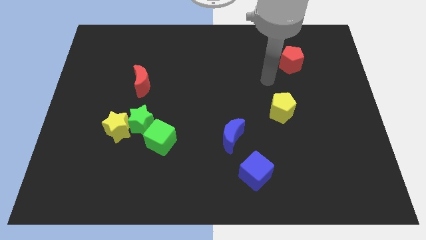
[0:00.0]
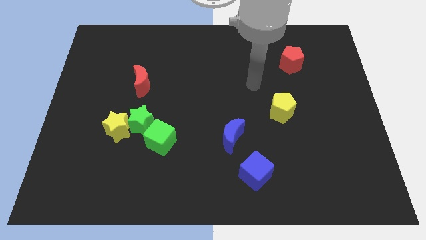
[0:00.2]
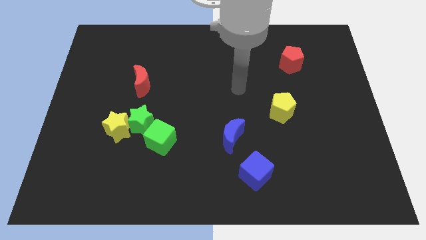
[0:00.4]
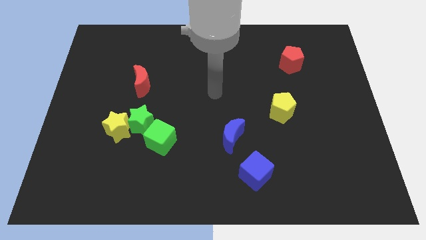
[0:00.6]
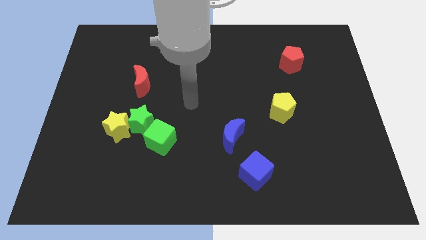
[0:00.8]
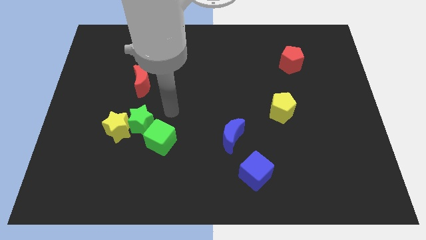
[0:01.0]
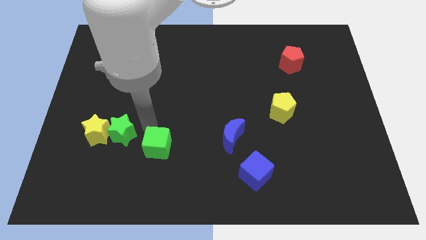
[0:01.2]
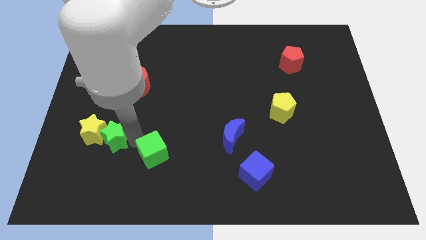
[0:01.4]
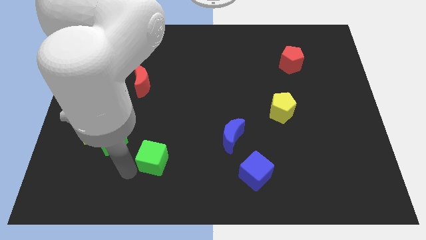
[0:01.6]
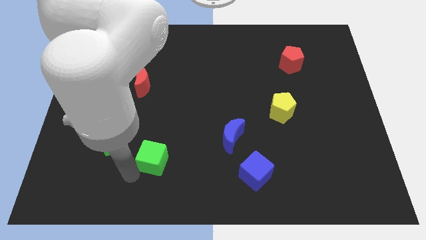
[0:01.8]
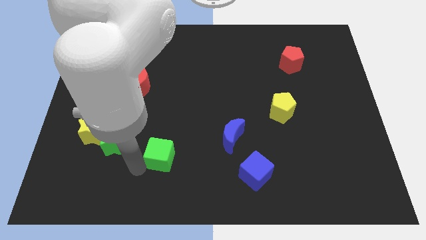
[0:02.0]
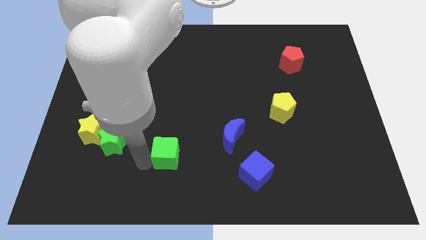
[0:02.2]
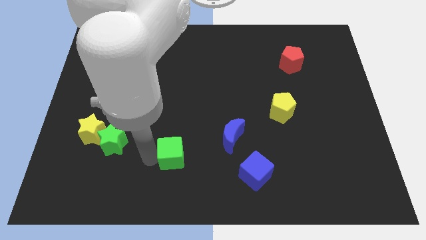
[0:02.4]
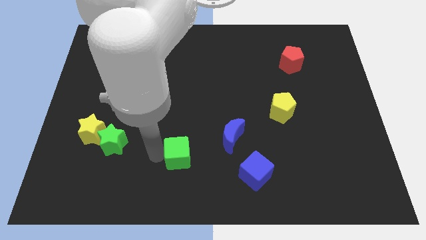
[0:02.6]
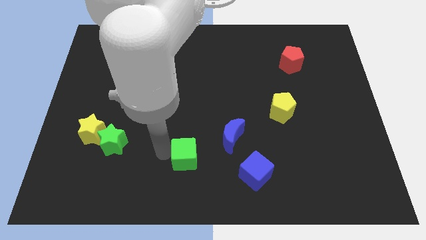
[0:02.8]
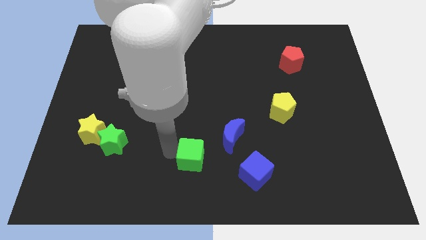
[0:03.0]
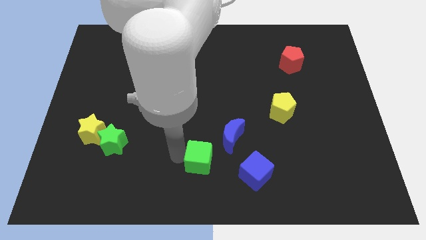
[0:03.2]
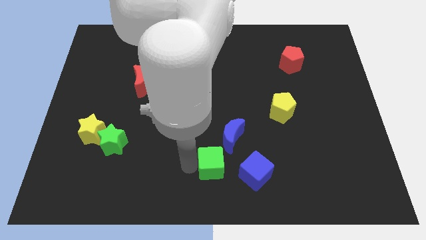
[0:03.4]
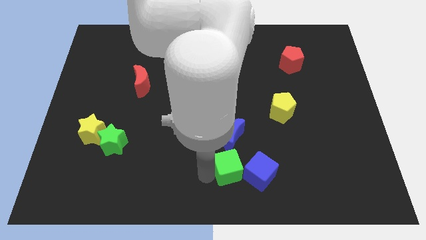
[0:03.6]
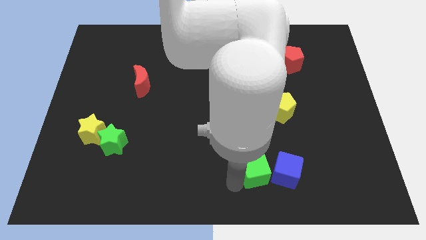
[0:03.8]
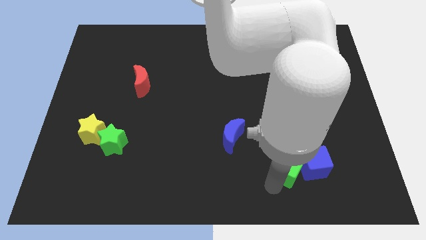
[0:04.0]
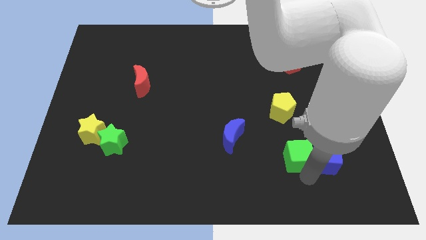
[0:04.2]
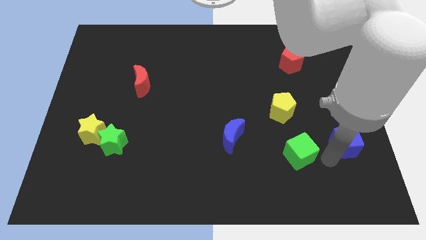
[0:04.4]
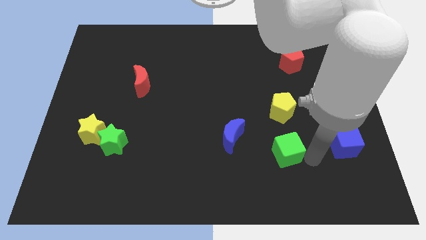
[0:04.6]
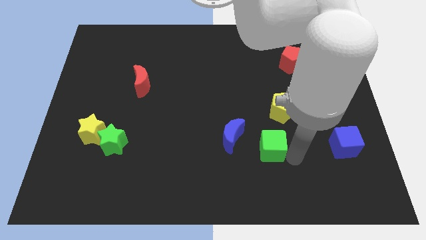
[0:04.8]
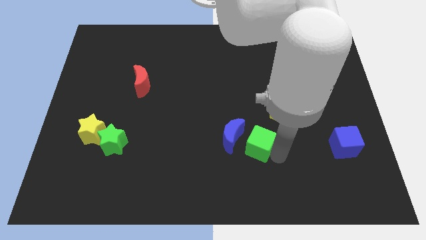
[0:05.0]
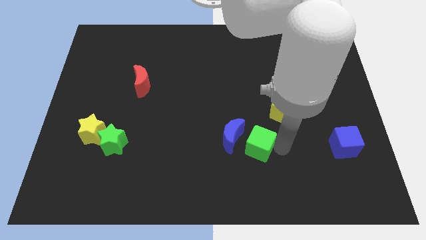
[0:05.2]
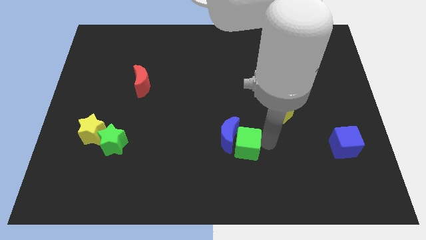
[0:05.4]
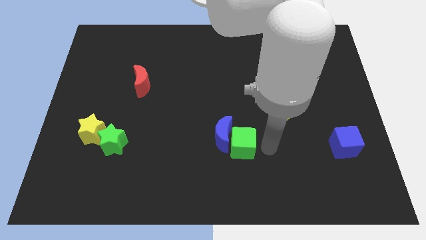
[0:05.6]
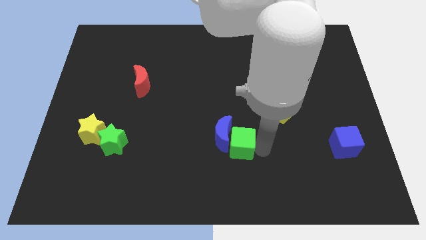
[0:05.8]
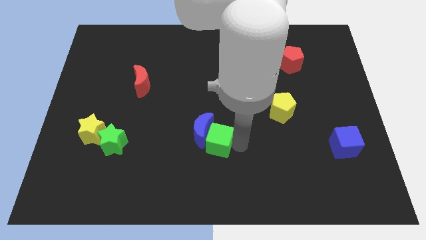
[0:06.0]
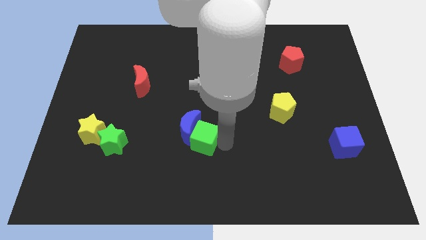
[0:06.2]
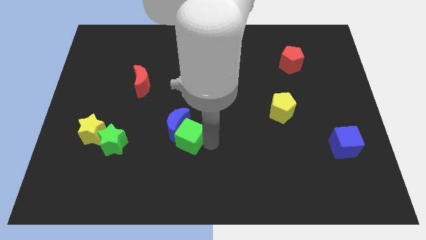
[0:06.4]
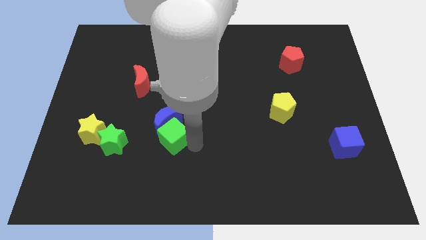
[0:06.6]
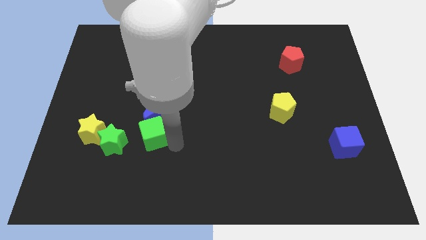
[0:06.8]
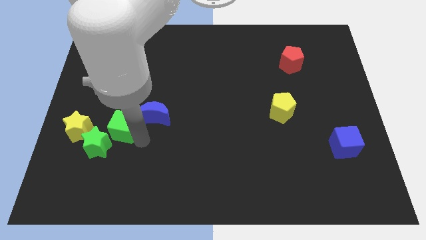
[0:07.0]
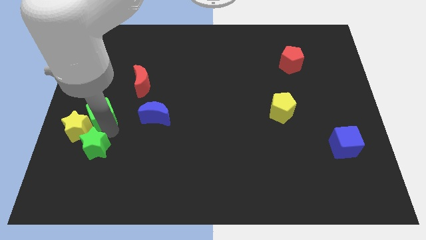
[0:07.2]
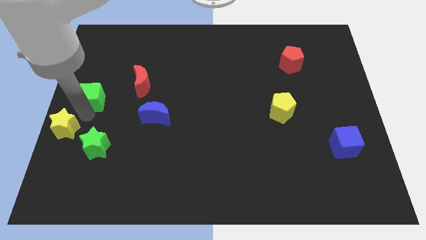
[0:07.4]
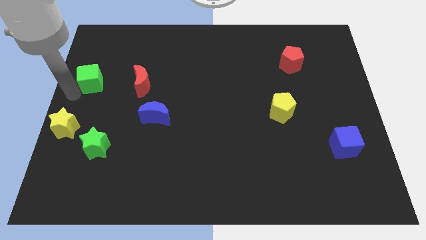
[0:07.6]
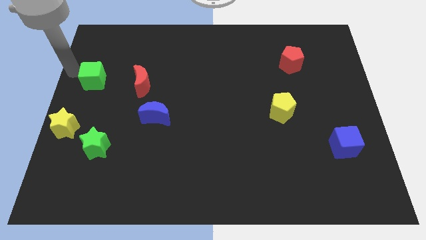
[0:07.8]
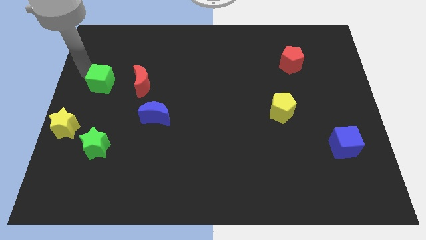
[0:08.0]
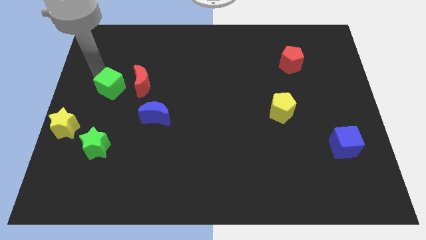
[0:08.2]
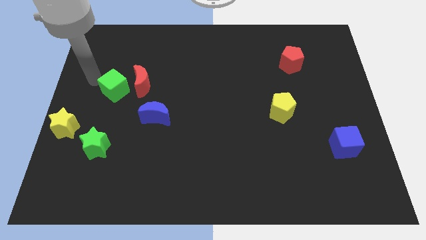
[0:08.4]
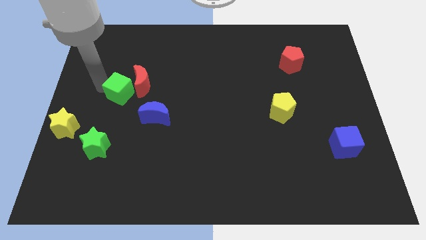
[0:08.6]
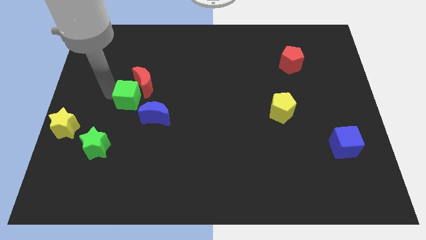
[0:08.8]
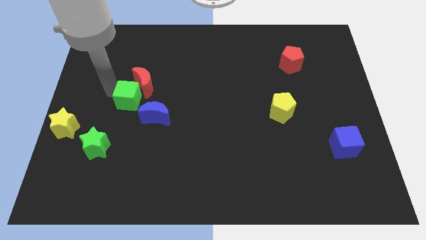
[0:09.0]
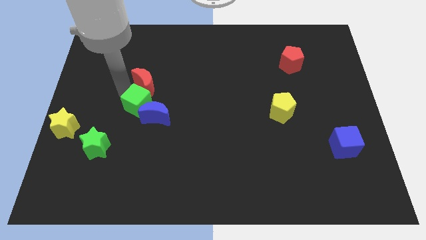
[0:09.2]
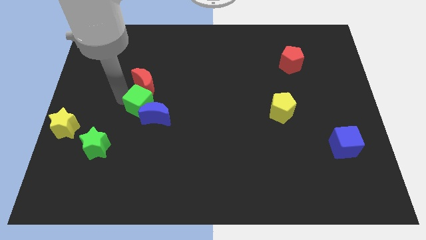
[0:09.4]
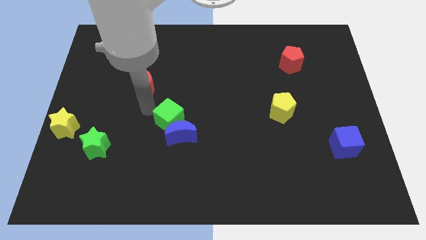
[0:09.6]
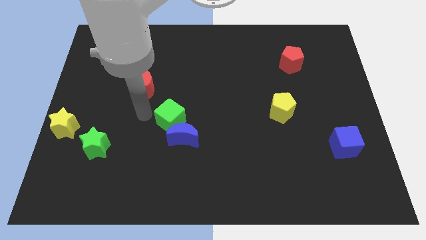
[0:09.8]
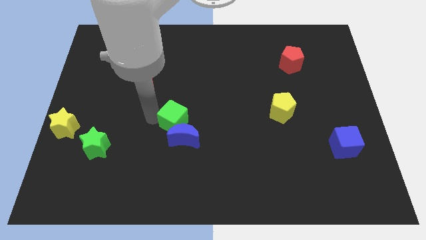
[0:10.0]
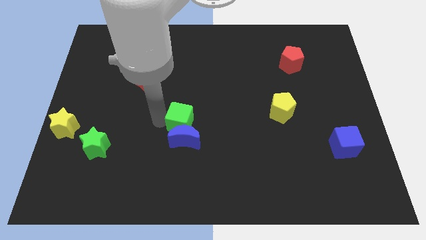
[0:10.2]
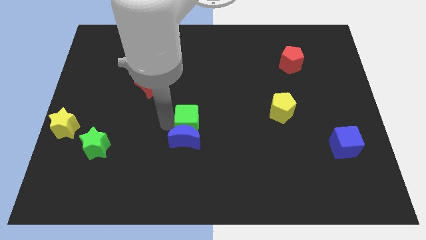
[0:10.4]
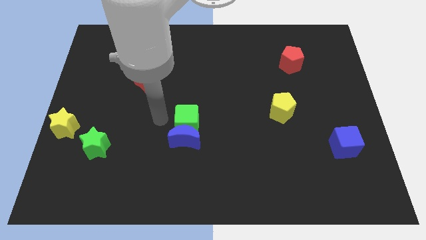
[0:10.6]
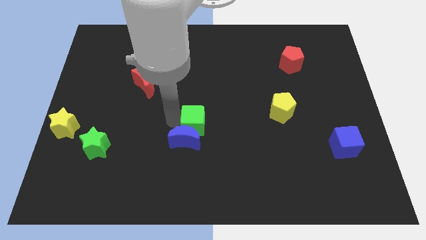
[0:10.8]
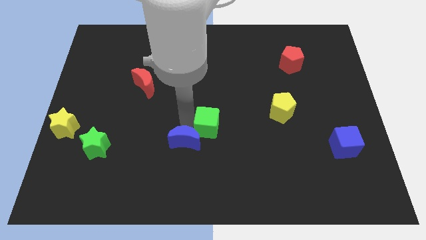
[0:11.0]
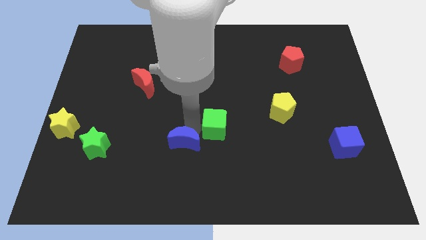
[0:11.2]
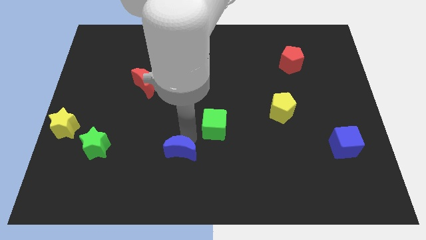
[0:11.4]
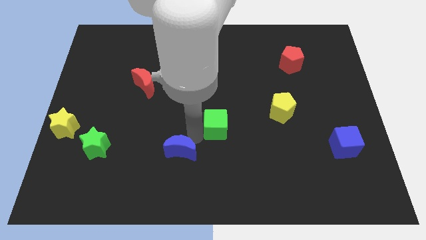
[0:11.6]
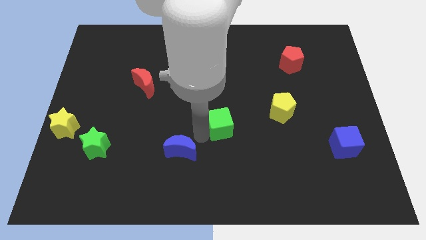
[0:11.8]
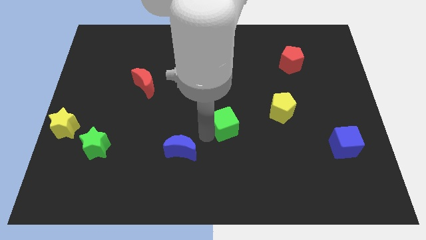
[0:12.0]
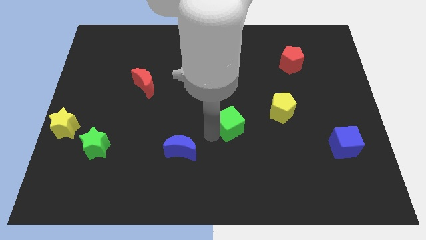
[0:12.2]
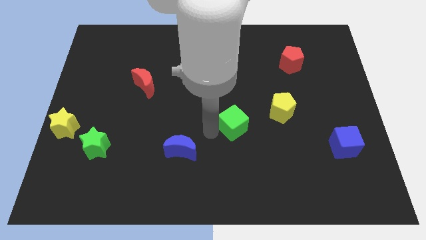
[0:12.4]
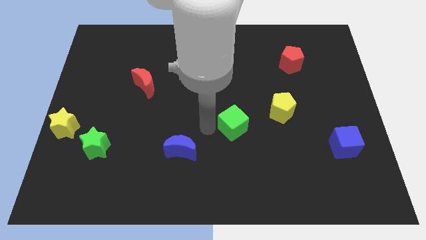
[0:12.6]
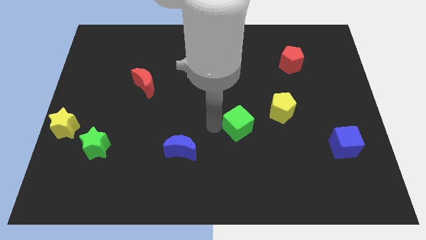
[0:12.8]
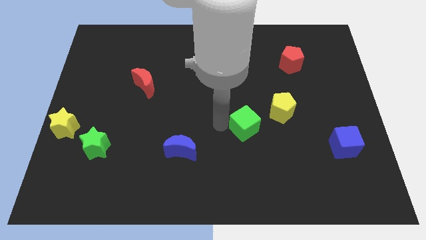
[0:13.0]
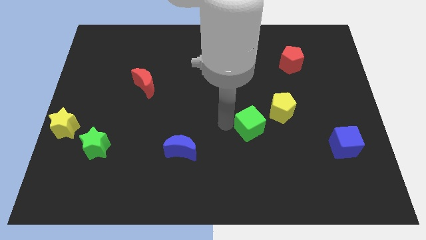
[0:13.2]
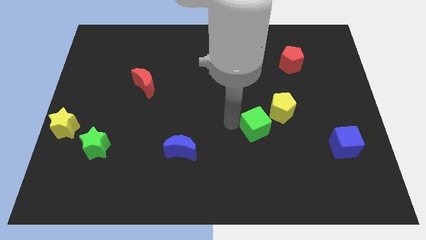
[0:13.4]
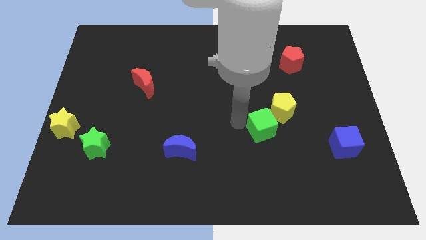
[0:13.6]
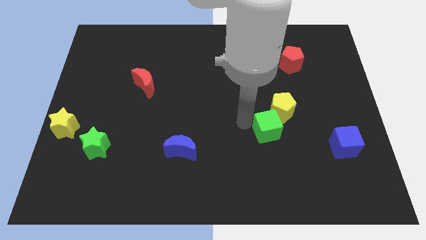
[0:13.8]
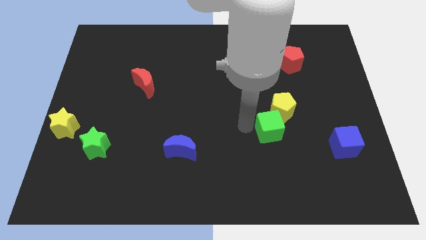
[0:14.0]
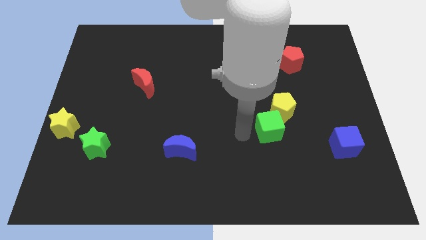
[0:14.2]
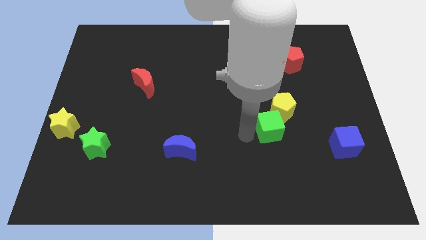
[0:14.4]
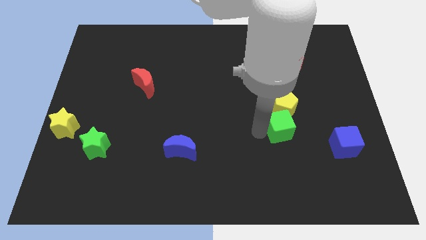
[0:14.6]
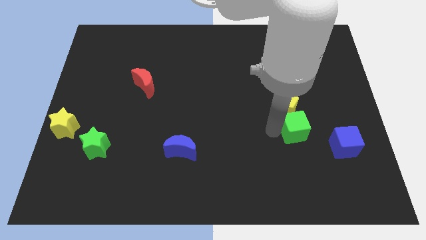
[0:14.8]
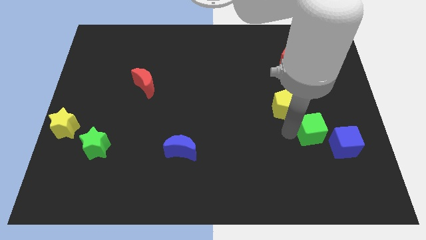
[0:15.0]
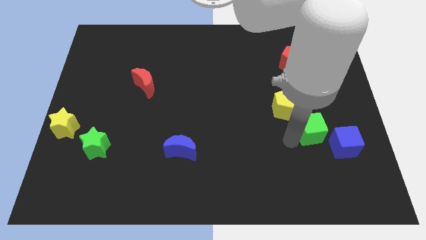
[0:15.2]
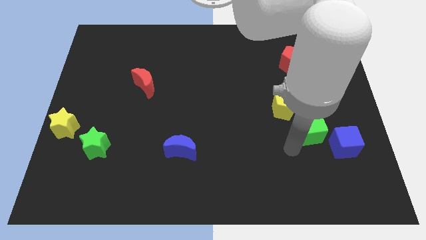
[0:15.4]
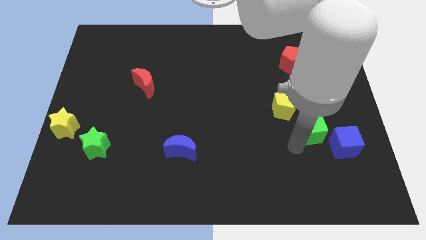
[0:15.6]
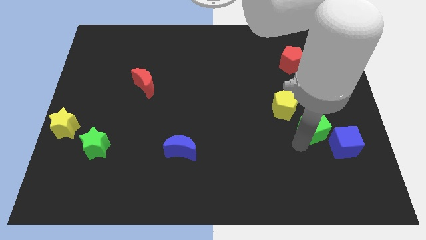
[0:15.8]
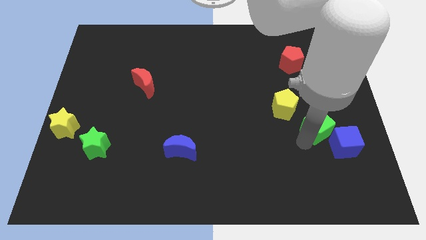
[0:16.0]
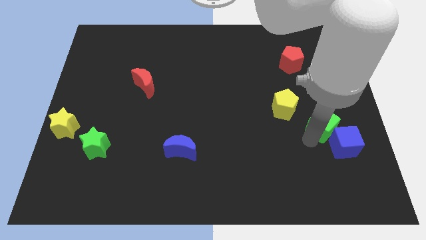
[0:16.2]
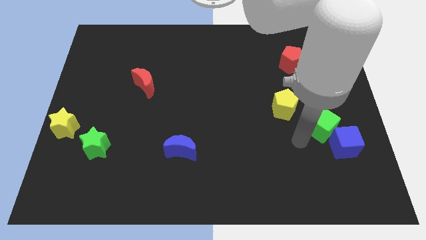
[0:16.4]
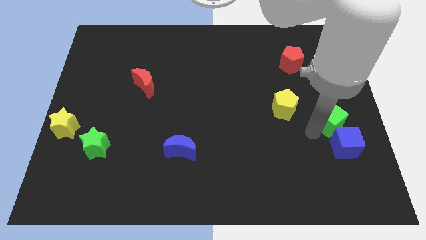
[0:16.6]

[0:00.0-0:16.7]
move the green cube to the right side of the board
